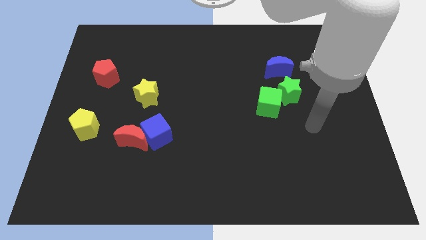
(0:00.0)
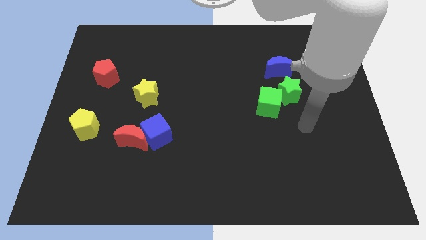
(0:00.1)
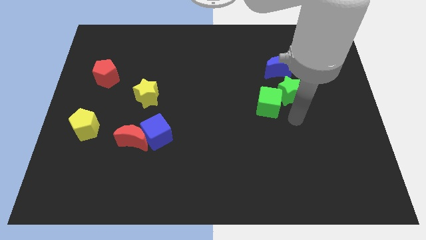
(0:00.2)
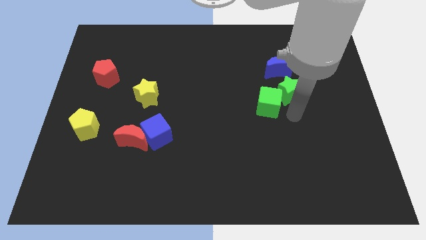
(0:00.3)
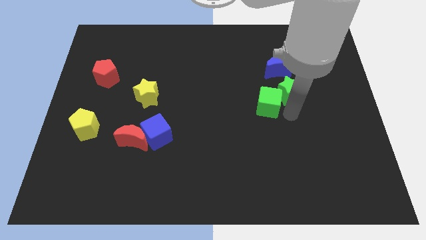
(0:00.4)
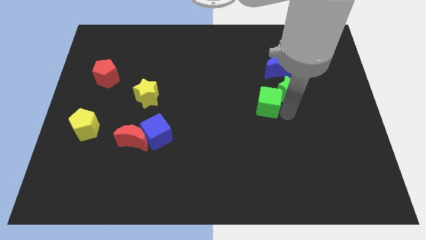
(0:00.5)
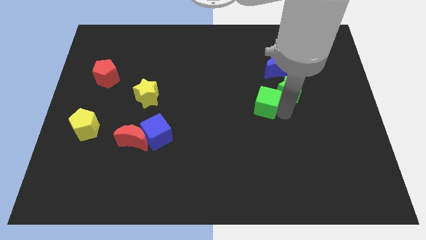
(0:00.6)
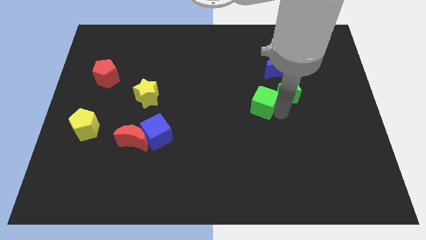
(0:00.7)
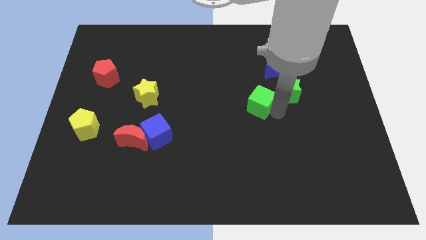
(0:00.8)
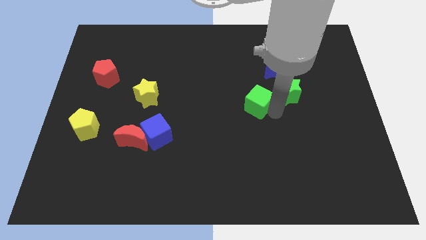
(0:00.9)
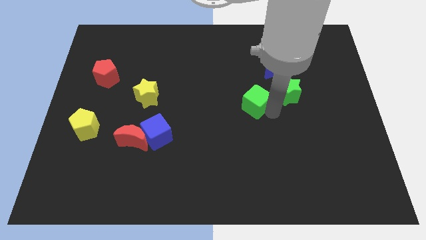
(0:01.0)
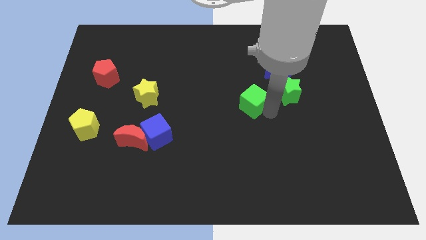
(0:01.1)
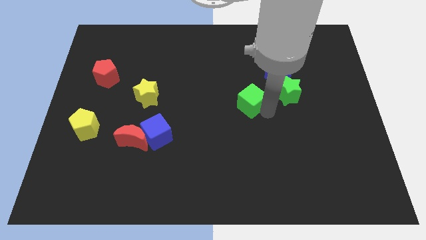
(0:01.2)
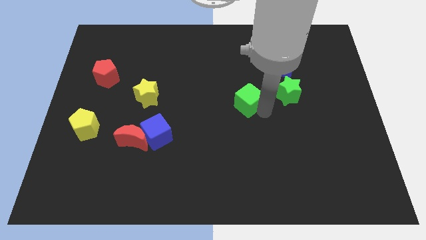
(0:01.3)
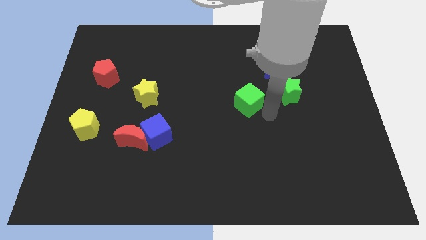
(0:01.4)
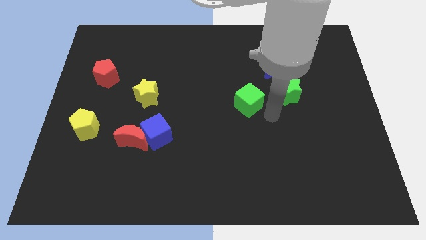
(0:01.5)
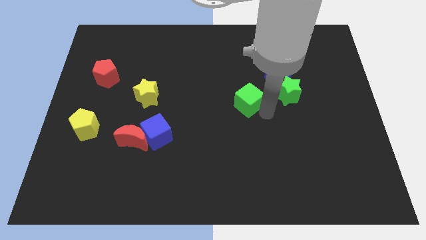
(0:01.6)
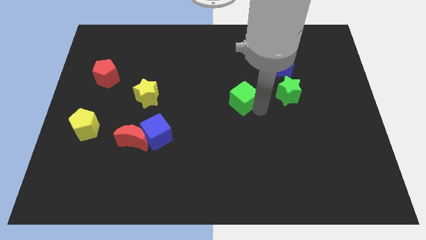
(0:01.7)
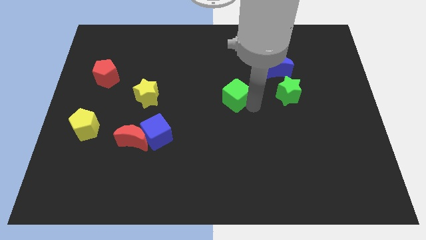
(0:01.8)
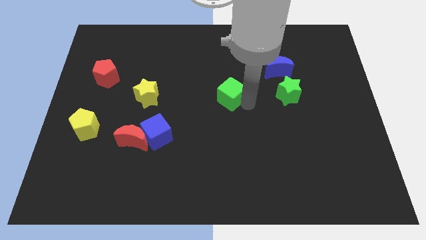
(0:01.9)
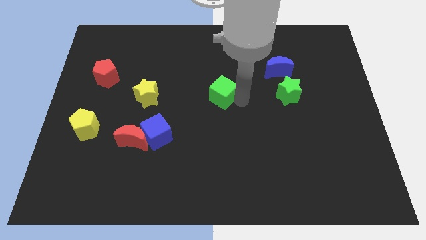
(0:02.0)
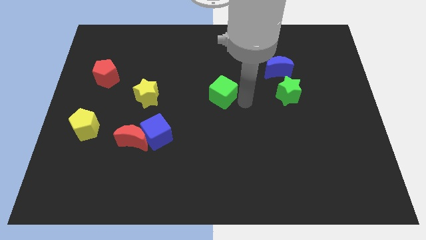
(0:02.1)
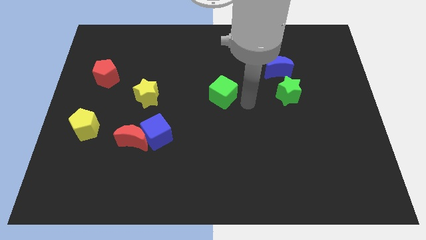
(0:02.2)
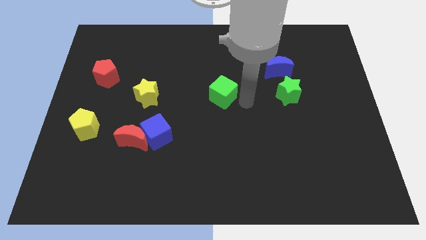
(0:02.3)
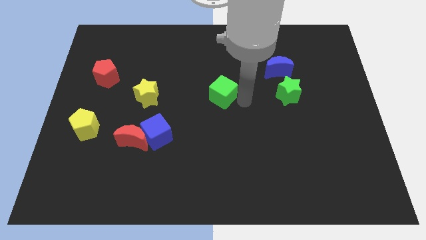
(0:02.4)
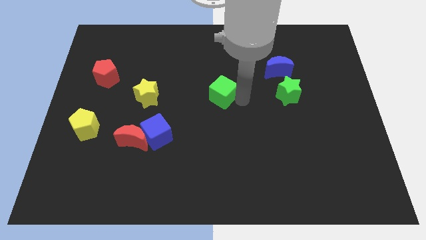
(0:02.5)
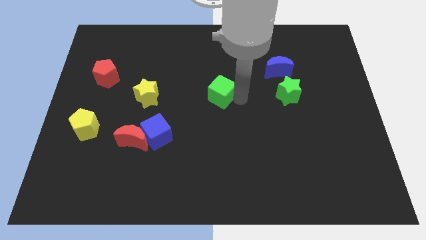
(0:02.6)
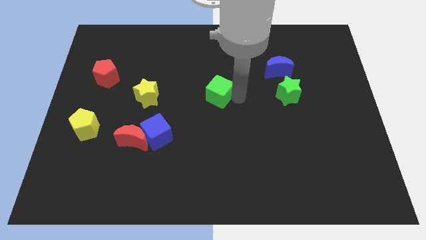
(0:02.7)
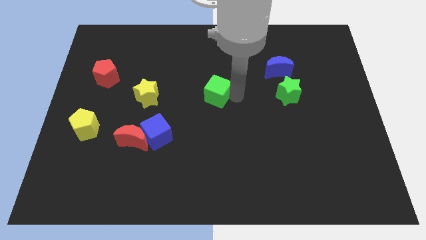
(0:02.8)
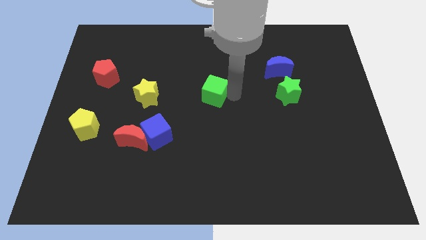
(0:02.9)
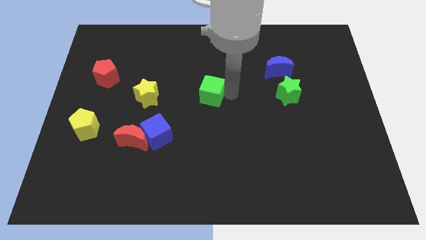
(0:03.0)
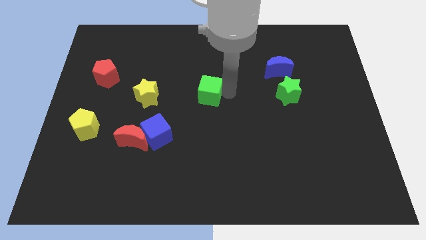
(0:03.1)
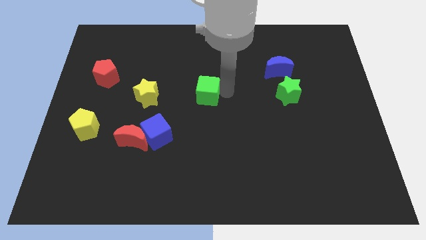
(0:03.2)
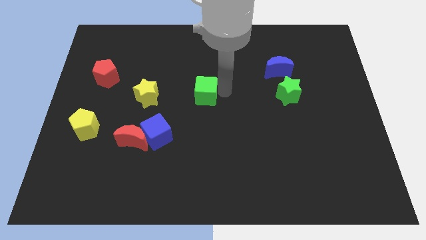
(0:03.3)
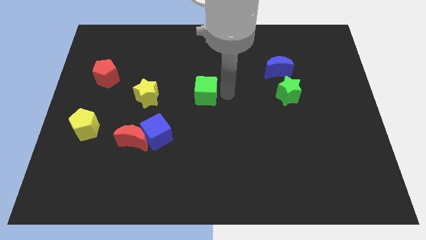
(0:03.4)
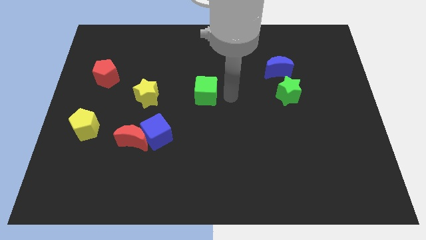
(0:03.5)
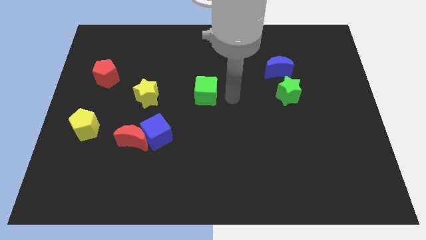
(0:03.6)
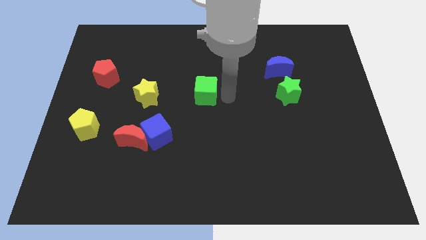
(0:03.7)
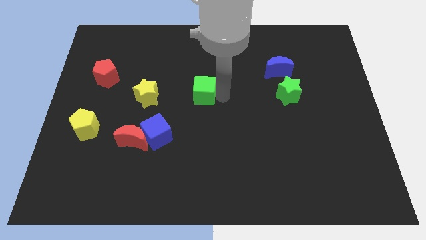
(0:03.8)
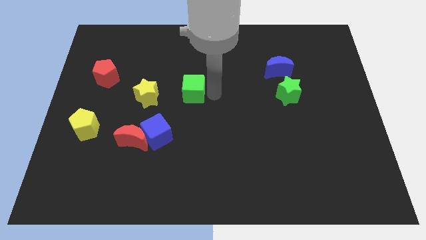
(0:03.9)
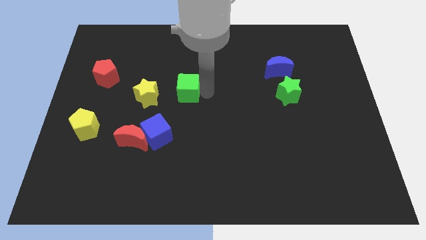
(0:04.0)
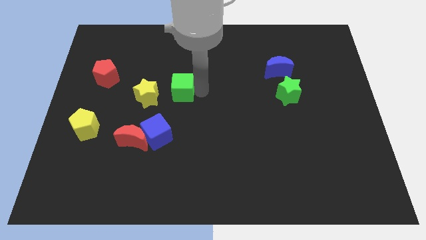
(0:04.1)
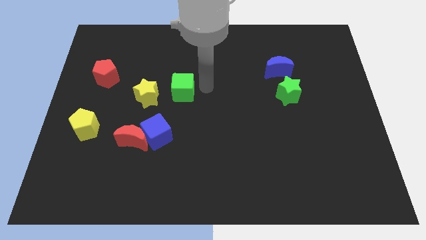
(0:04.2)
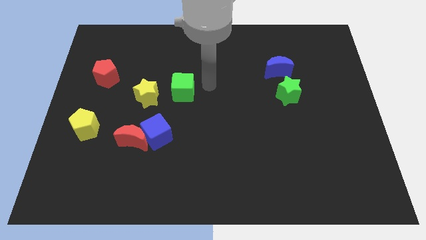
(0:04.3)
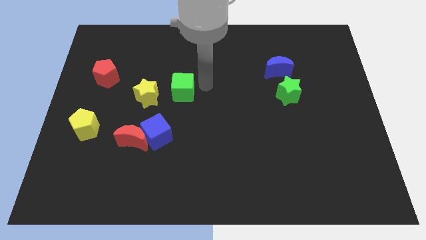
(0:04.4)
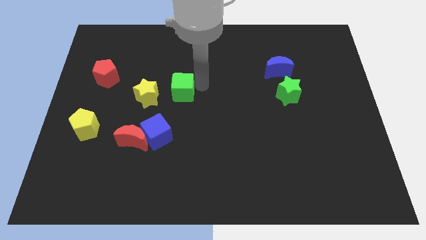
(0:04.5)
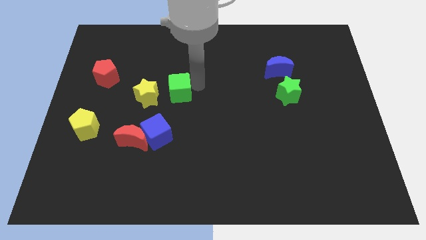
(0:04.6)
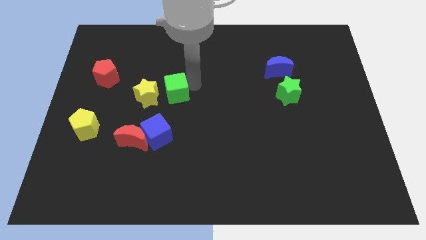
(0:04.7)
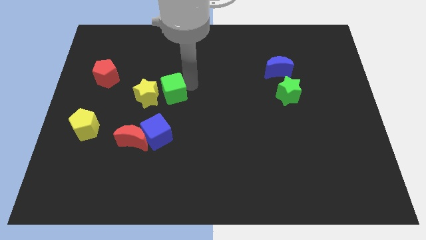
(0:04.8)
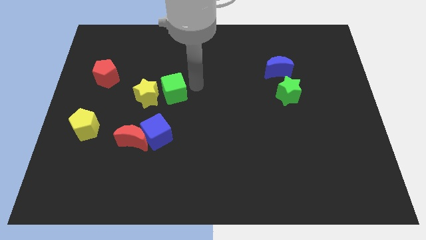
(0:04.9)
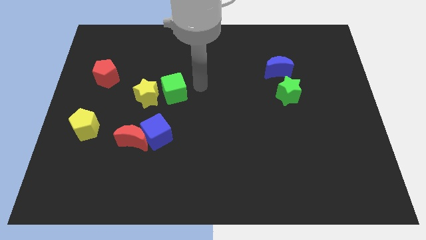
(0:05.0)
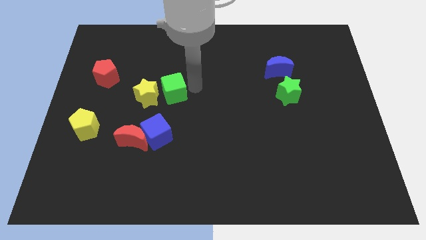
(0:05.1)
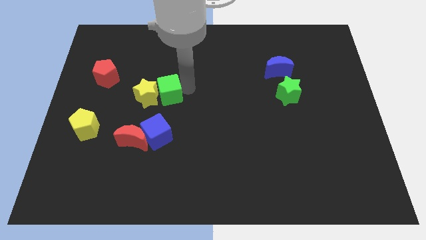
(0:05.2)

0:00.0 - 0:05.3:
move the green cube next to the yellow star

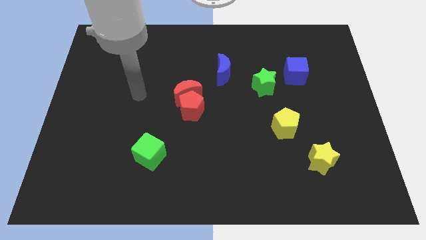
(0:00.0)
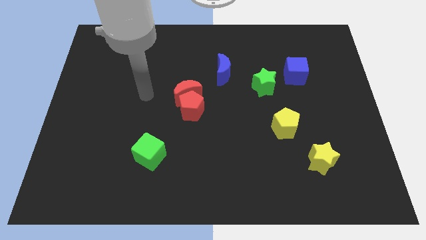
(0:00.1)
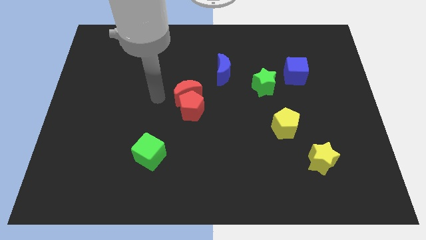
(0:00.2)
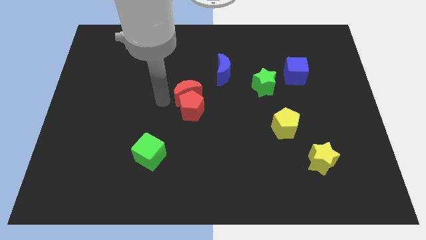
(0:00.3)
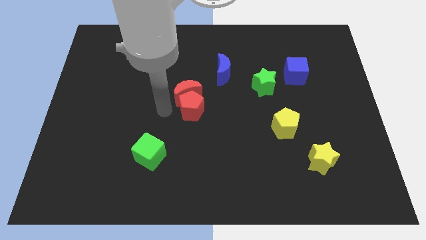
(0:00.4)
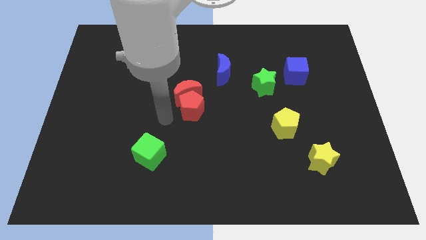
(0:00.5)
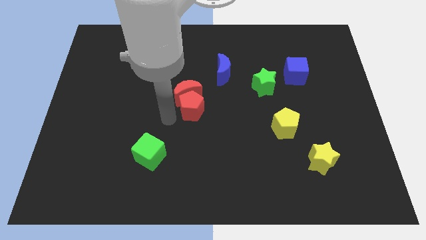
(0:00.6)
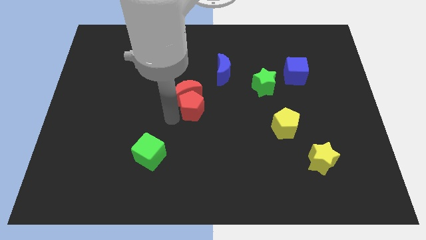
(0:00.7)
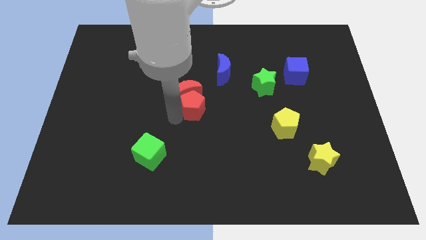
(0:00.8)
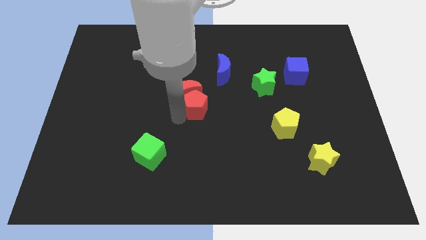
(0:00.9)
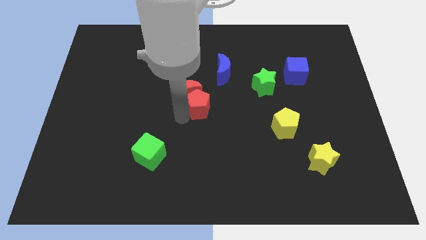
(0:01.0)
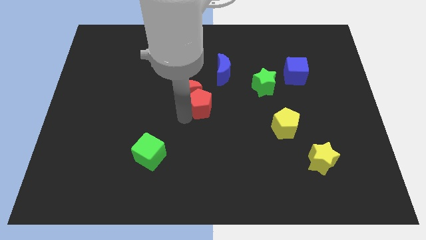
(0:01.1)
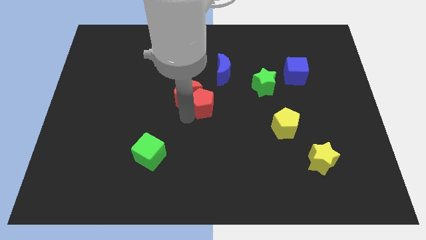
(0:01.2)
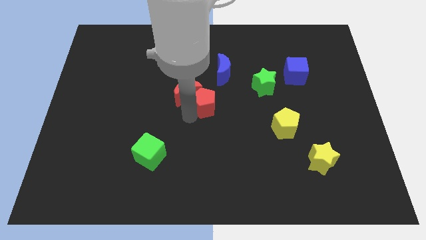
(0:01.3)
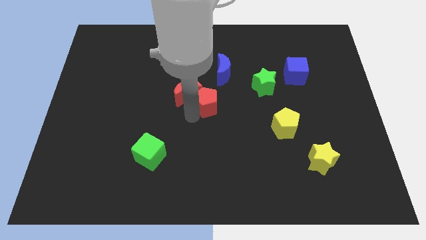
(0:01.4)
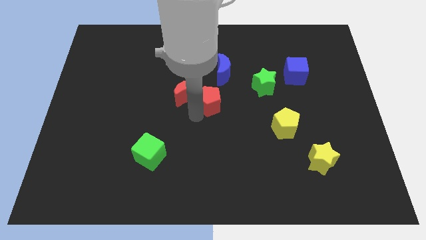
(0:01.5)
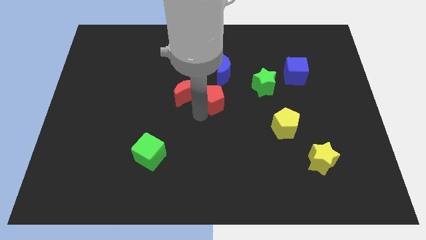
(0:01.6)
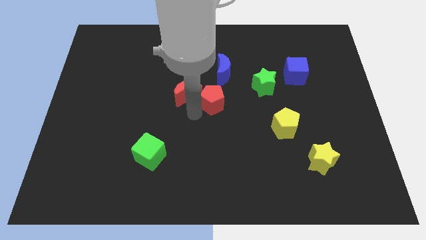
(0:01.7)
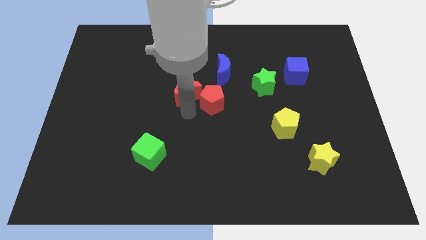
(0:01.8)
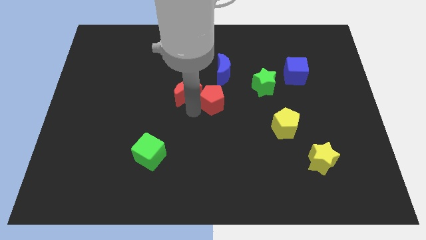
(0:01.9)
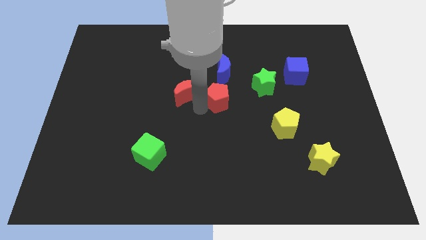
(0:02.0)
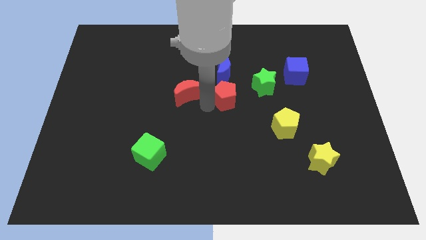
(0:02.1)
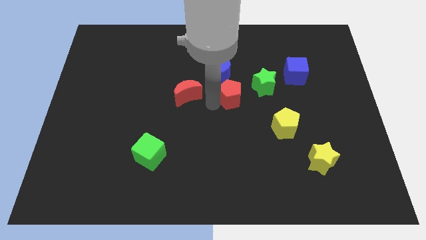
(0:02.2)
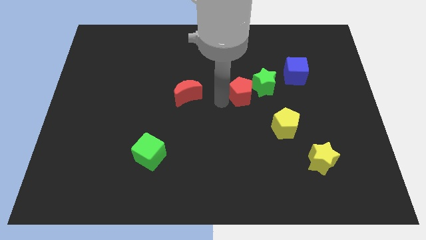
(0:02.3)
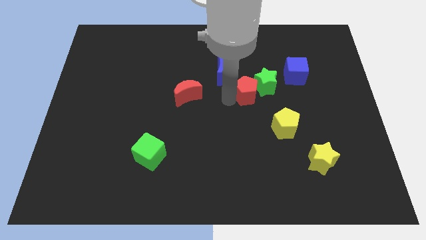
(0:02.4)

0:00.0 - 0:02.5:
push the red pentagon towards the green star

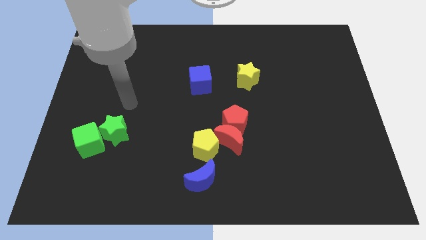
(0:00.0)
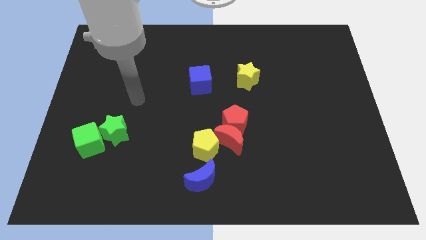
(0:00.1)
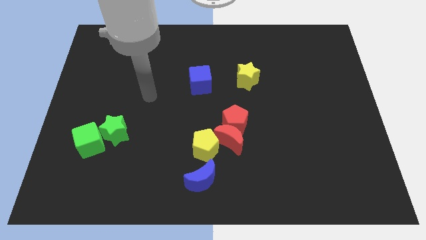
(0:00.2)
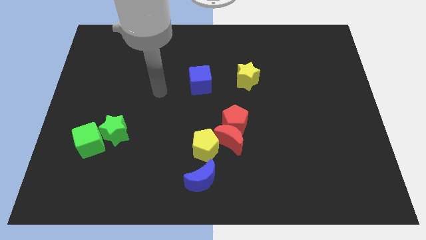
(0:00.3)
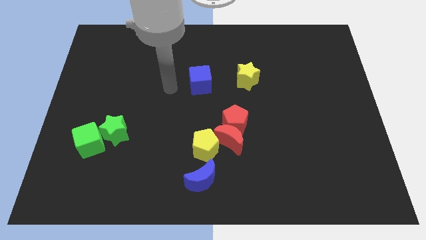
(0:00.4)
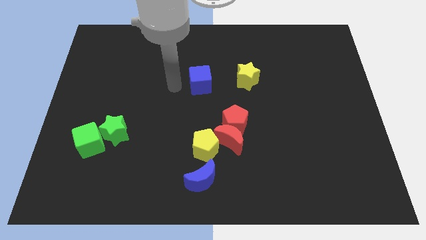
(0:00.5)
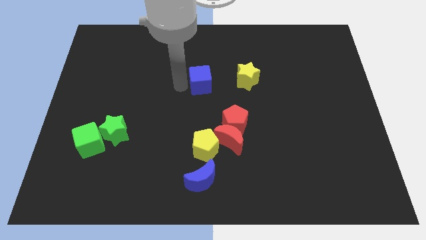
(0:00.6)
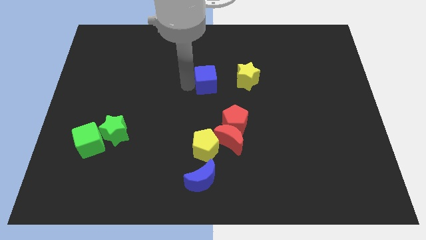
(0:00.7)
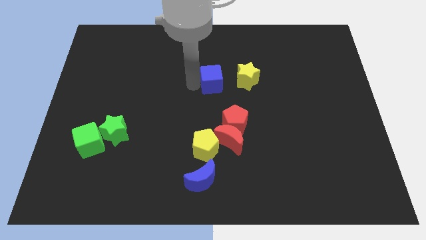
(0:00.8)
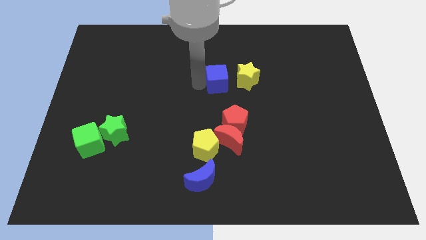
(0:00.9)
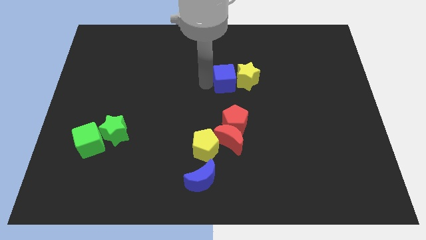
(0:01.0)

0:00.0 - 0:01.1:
slide the blue cube close to the yellow star
